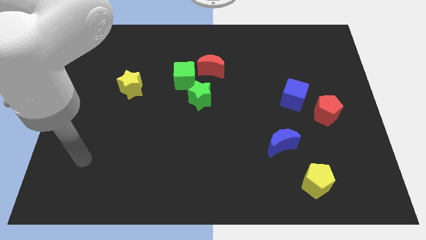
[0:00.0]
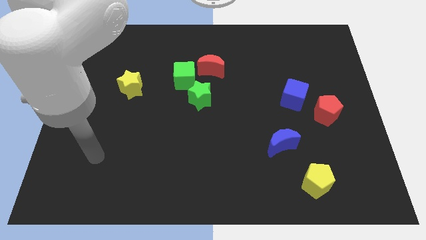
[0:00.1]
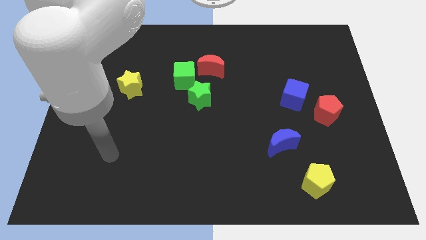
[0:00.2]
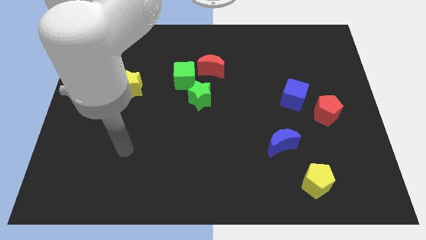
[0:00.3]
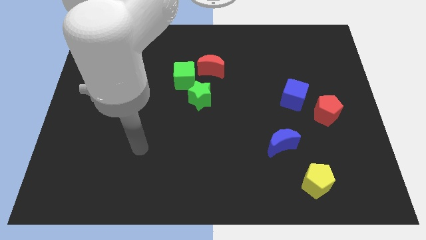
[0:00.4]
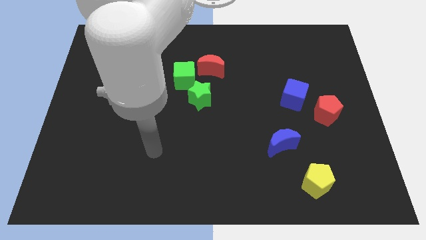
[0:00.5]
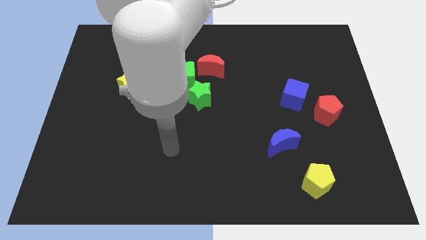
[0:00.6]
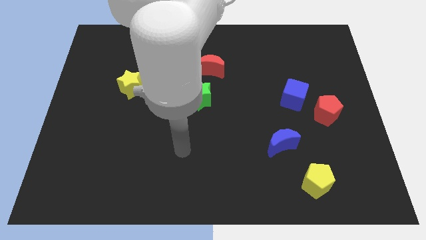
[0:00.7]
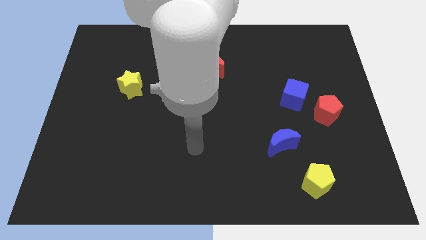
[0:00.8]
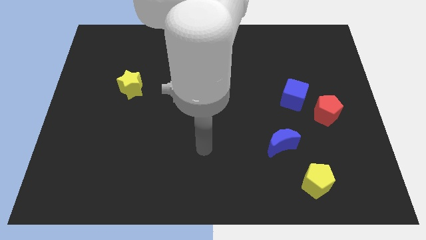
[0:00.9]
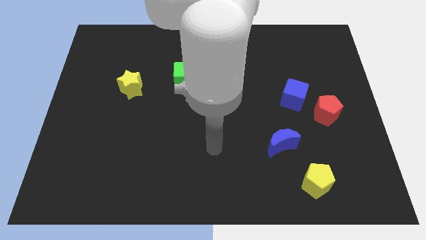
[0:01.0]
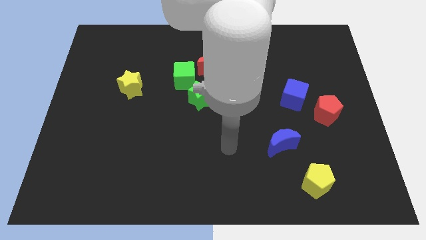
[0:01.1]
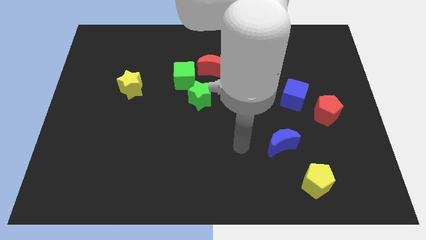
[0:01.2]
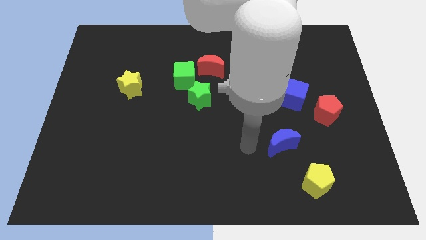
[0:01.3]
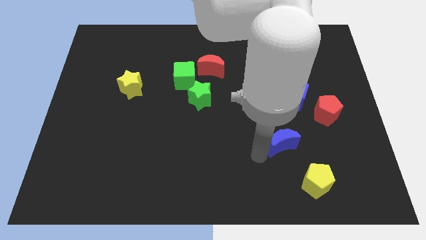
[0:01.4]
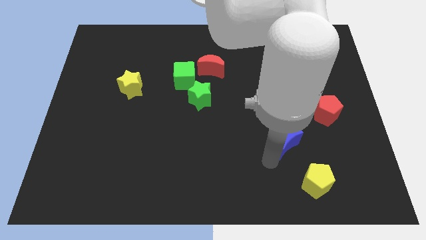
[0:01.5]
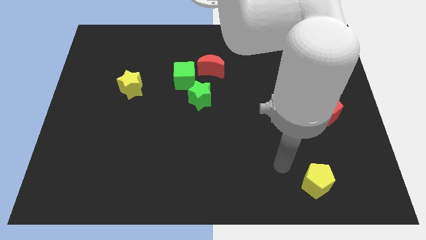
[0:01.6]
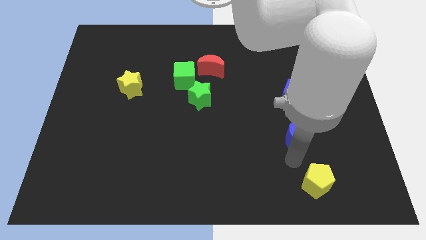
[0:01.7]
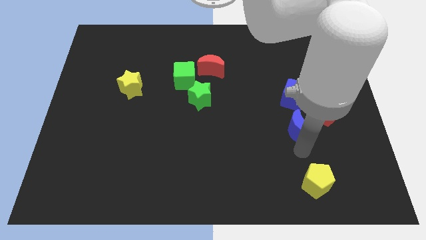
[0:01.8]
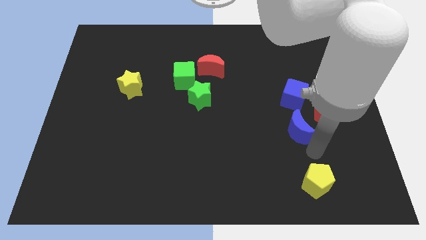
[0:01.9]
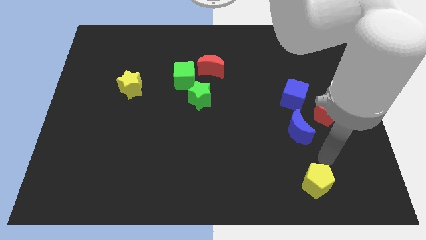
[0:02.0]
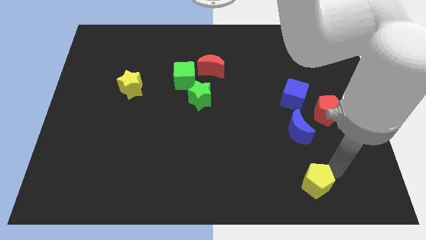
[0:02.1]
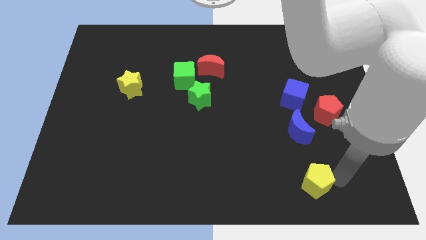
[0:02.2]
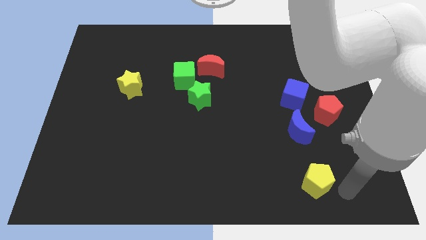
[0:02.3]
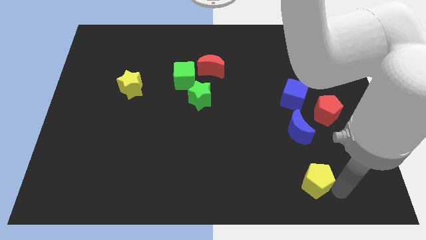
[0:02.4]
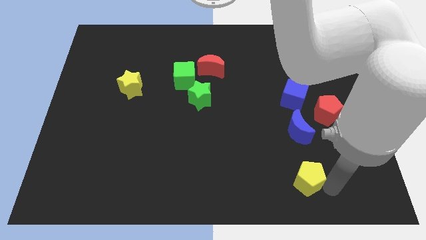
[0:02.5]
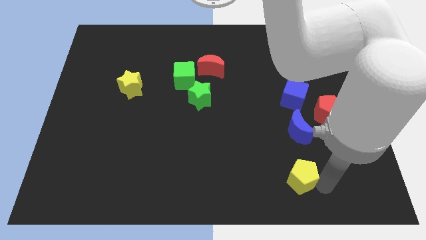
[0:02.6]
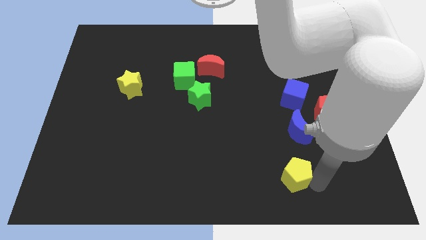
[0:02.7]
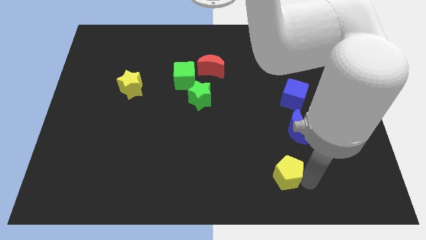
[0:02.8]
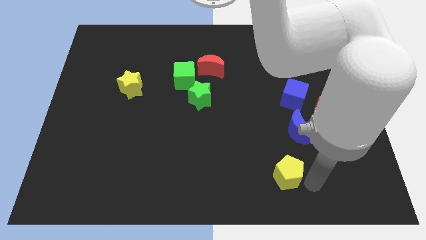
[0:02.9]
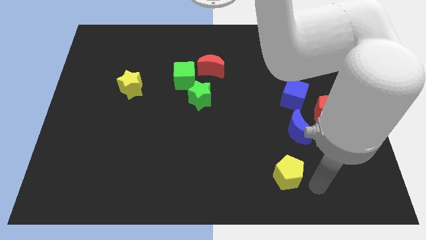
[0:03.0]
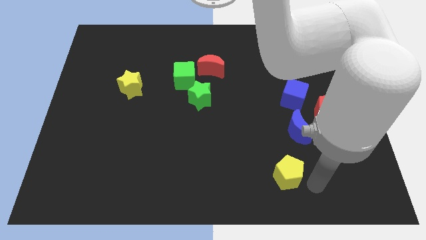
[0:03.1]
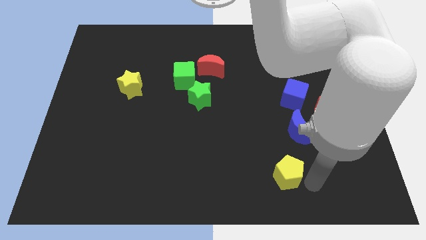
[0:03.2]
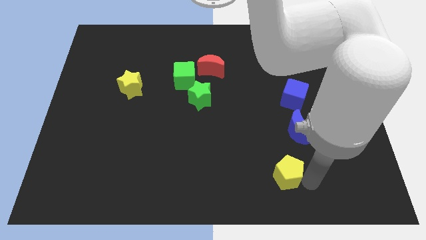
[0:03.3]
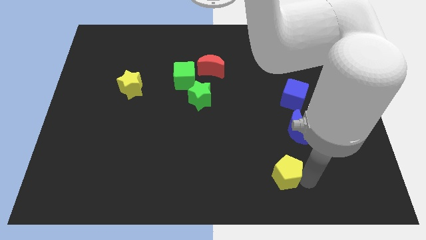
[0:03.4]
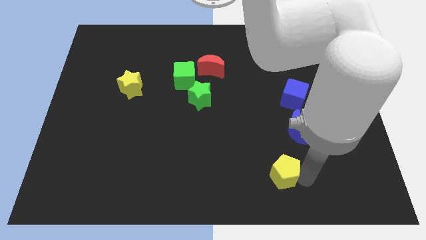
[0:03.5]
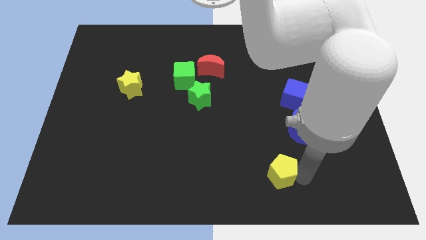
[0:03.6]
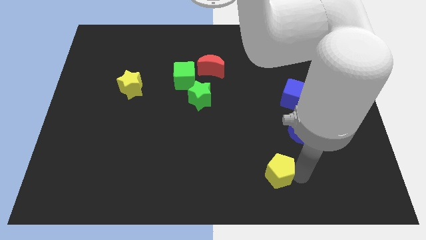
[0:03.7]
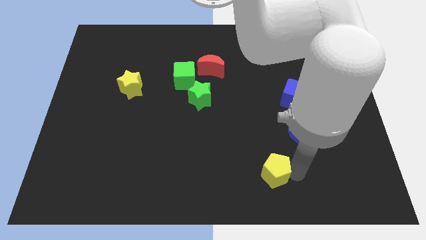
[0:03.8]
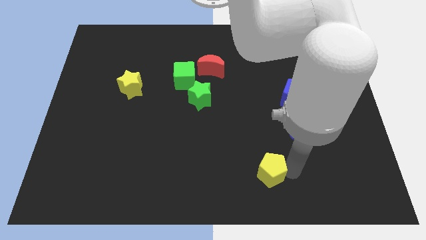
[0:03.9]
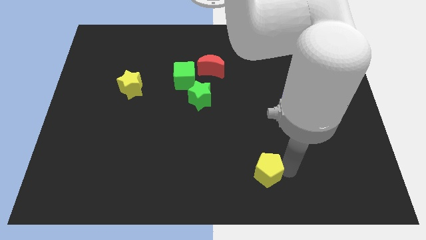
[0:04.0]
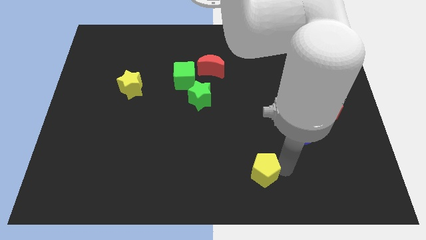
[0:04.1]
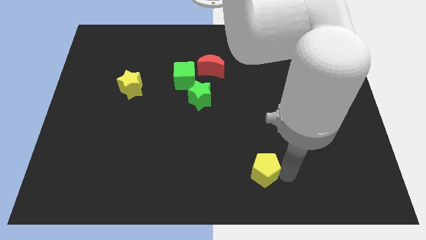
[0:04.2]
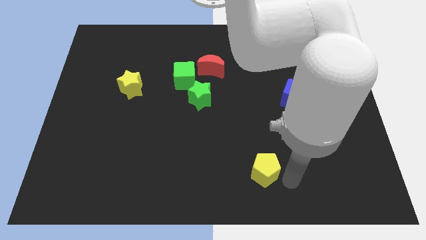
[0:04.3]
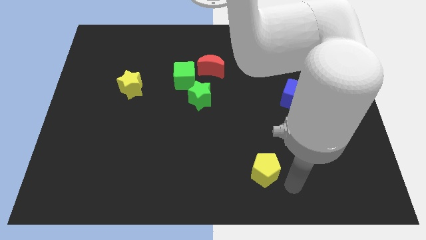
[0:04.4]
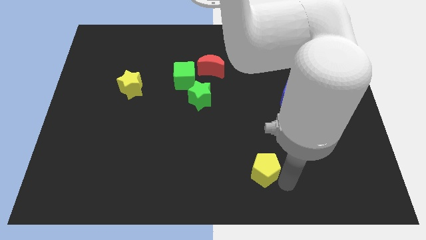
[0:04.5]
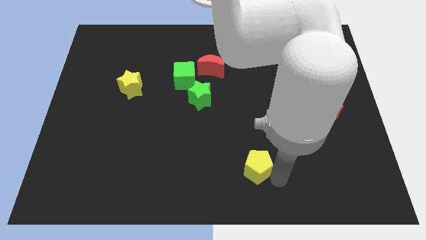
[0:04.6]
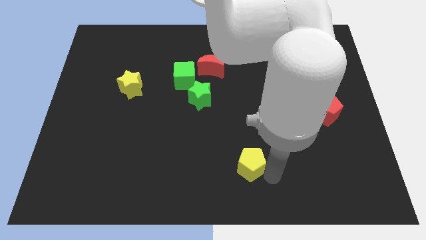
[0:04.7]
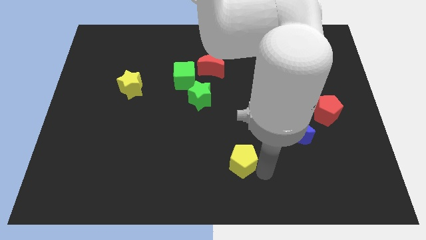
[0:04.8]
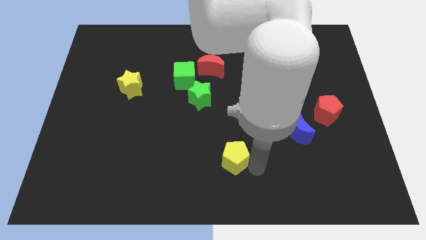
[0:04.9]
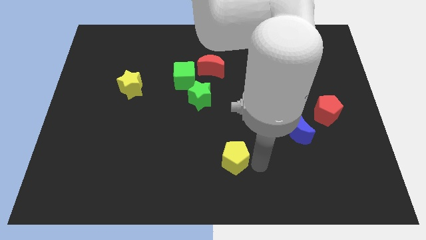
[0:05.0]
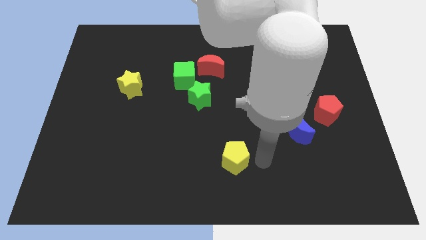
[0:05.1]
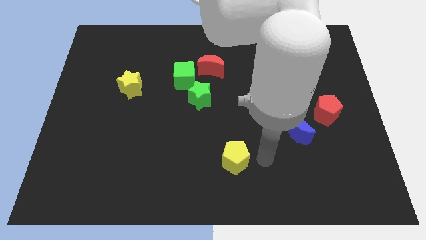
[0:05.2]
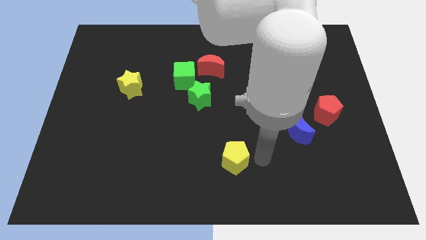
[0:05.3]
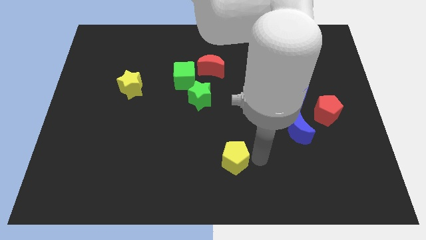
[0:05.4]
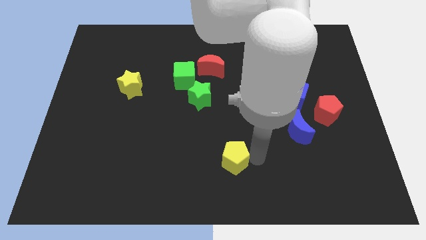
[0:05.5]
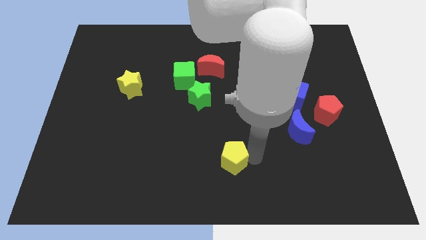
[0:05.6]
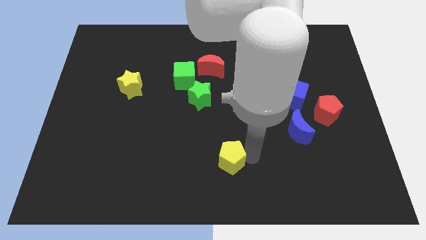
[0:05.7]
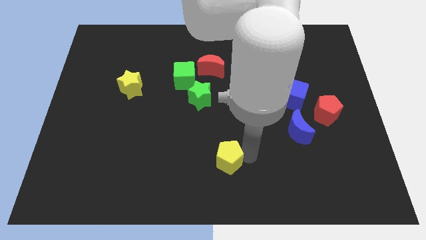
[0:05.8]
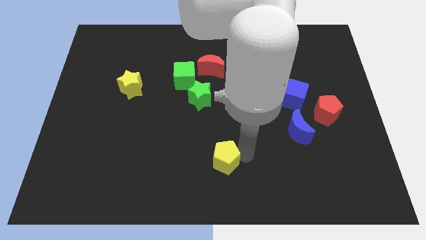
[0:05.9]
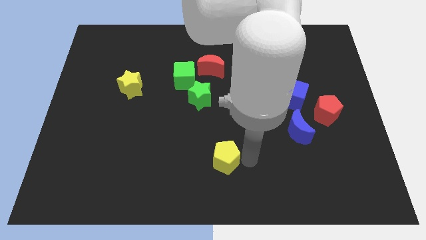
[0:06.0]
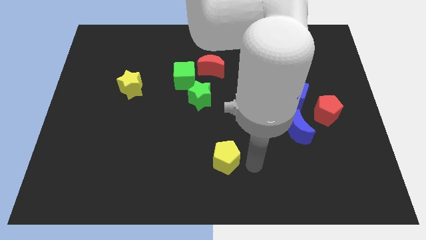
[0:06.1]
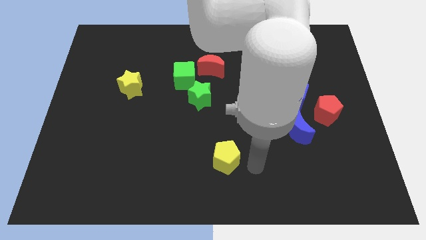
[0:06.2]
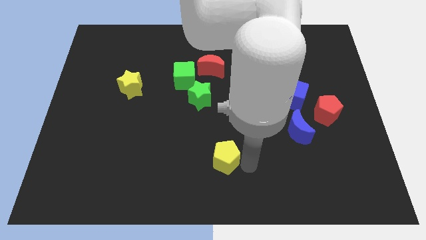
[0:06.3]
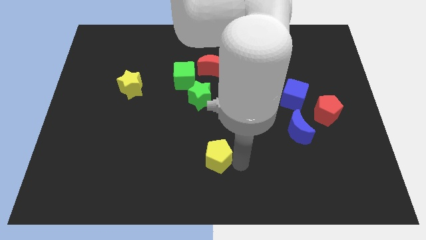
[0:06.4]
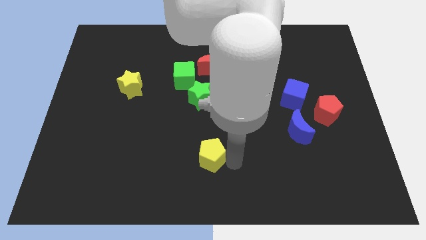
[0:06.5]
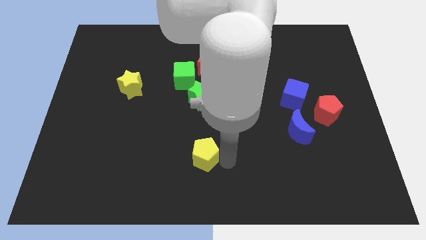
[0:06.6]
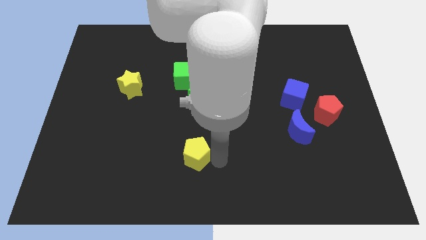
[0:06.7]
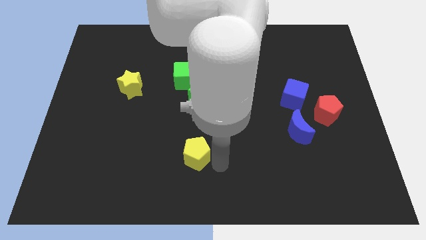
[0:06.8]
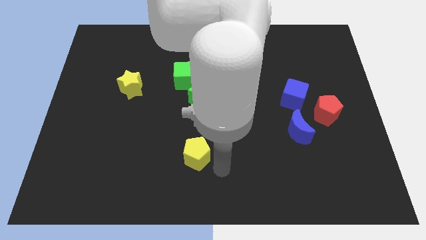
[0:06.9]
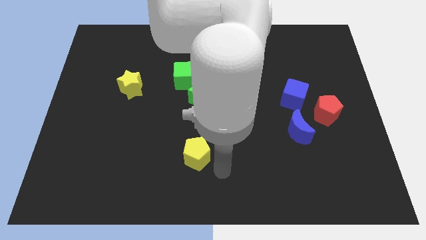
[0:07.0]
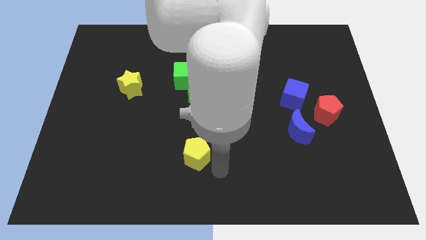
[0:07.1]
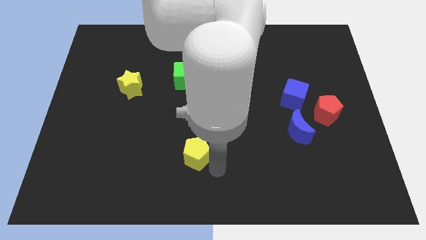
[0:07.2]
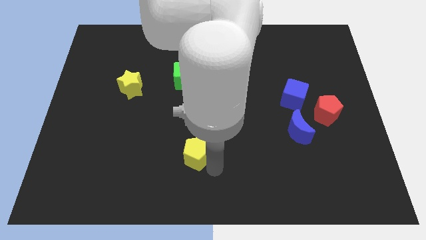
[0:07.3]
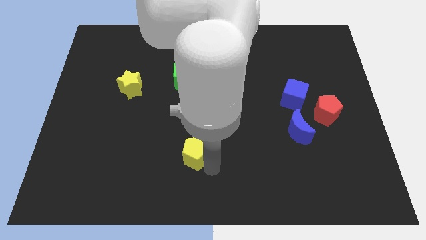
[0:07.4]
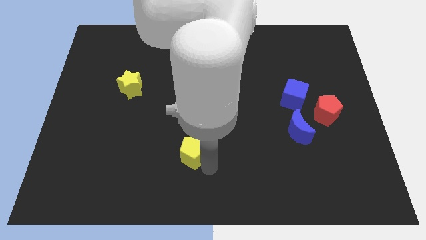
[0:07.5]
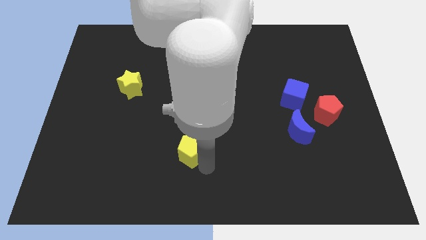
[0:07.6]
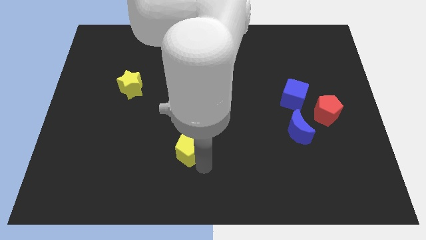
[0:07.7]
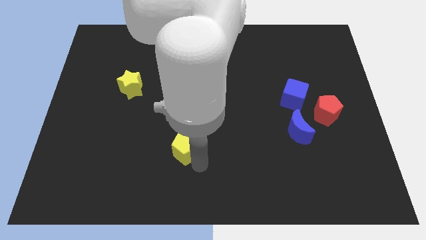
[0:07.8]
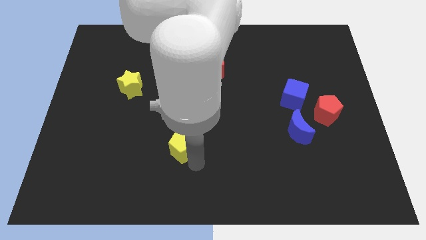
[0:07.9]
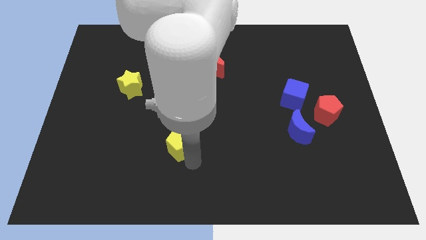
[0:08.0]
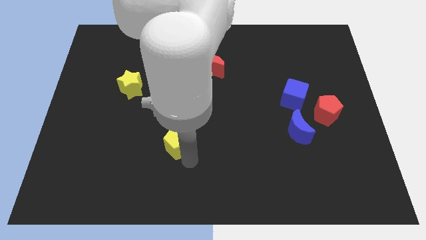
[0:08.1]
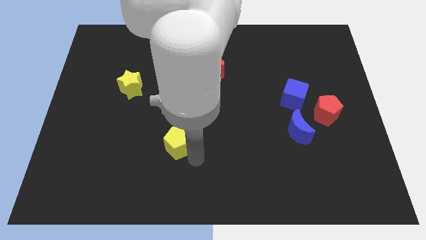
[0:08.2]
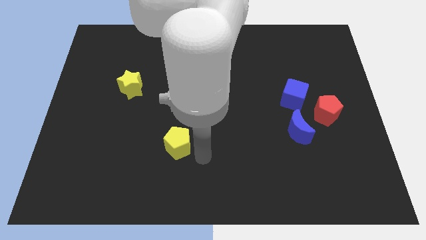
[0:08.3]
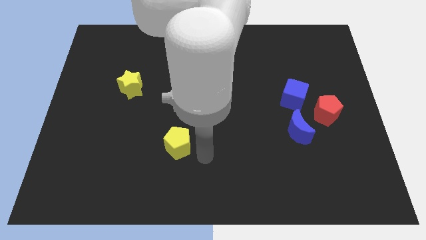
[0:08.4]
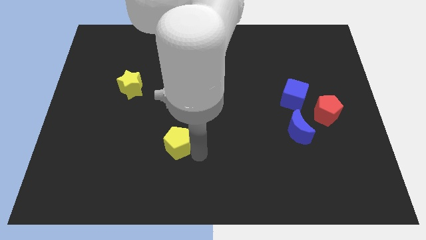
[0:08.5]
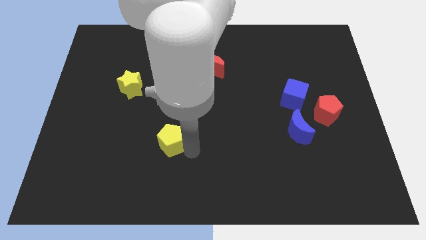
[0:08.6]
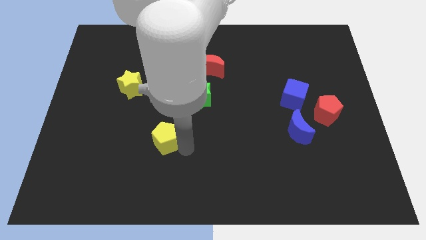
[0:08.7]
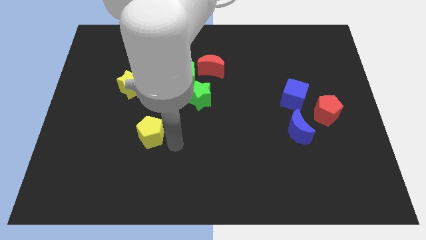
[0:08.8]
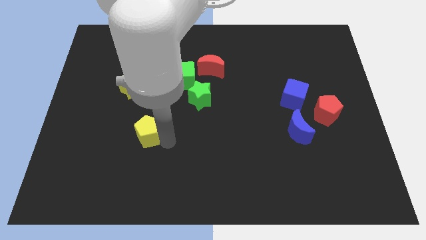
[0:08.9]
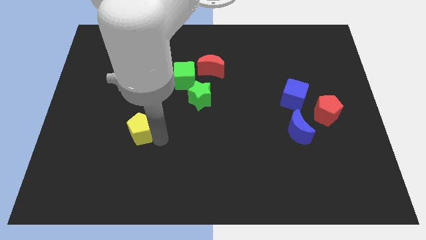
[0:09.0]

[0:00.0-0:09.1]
push the yellow pentagon to the bottom of the yellow star
